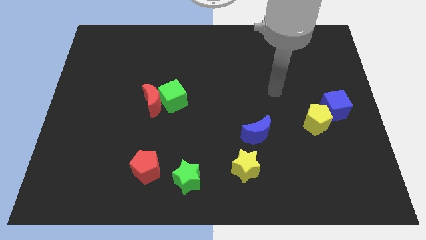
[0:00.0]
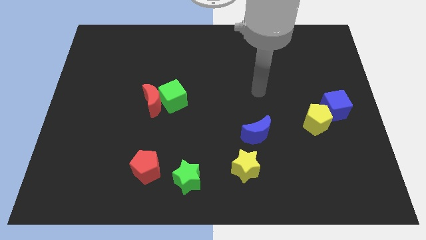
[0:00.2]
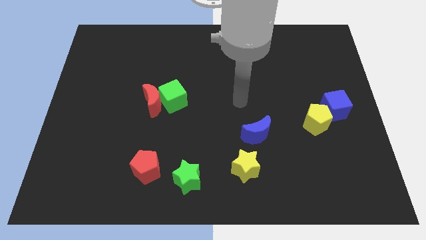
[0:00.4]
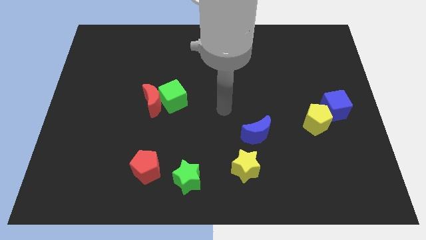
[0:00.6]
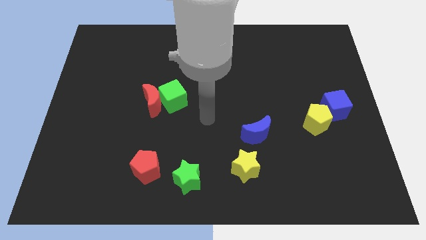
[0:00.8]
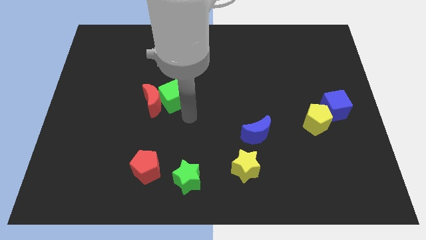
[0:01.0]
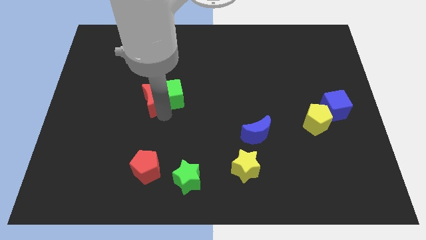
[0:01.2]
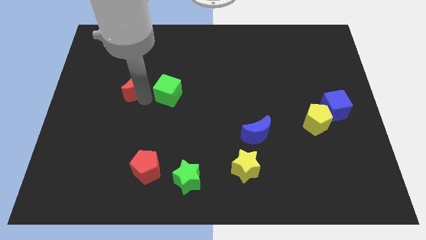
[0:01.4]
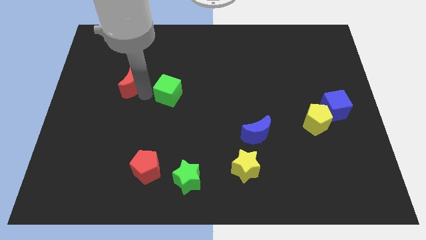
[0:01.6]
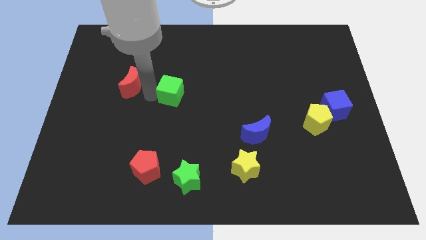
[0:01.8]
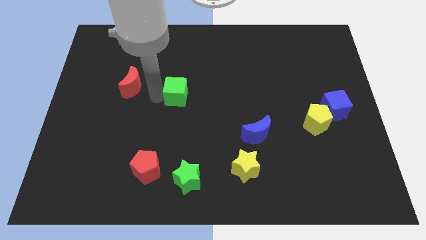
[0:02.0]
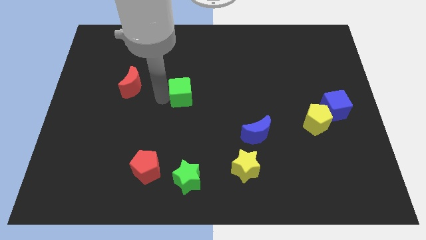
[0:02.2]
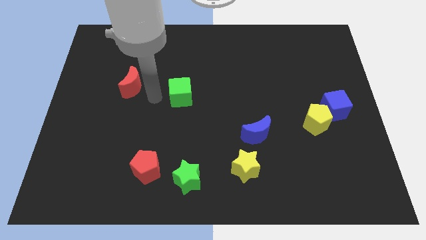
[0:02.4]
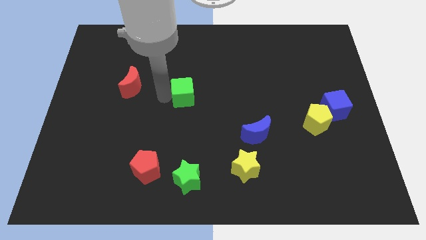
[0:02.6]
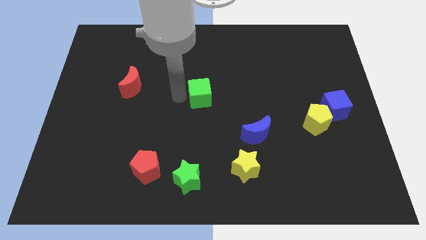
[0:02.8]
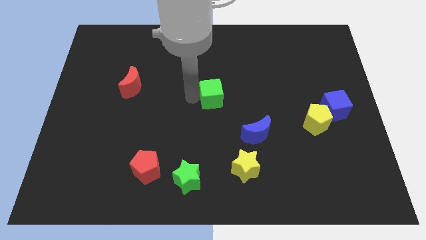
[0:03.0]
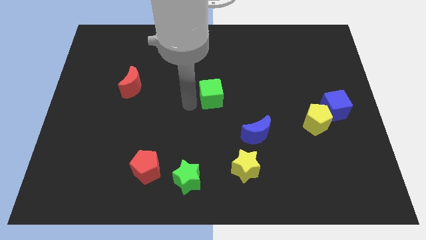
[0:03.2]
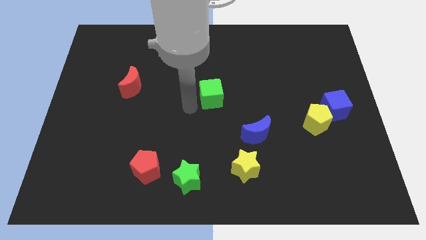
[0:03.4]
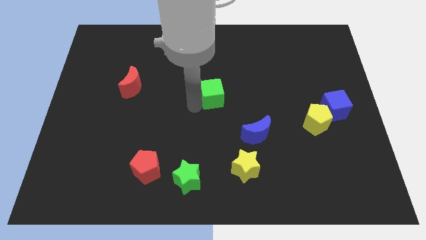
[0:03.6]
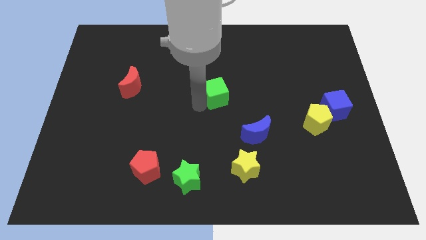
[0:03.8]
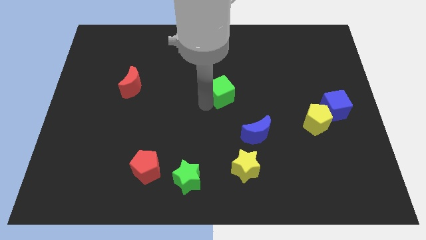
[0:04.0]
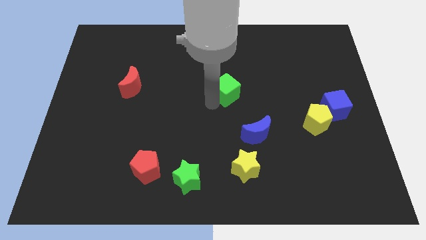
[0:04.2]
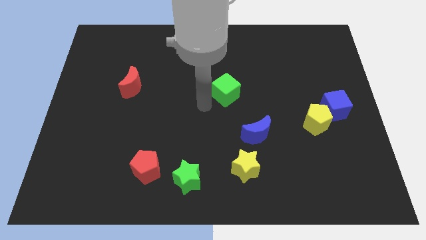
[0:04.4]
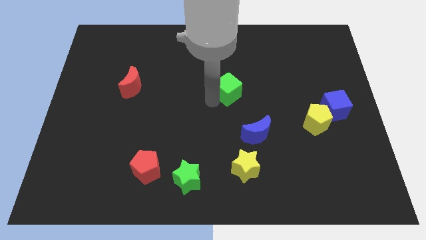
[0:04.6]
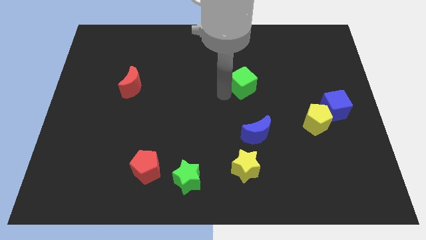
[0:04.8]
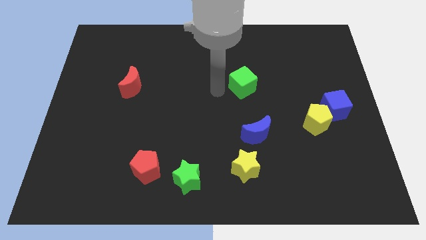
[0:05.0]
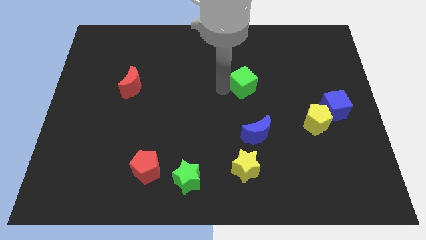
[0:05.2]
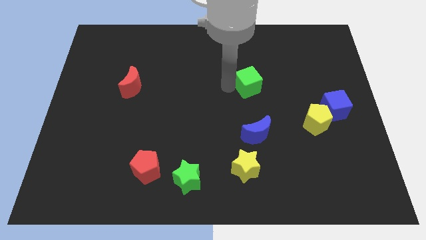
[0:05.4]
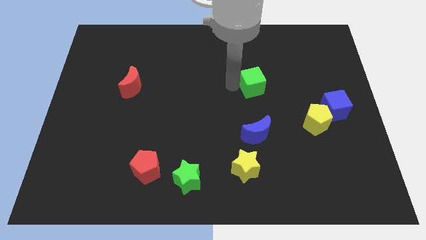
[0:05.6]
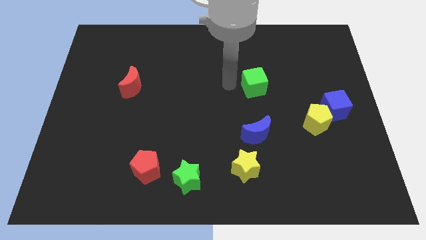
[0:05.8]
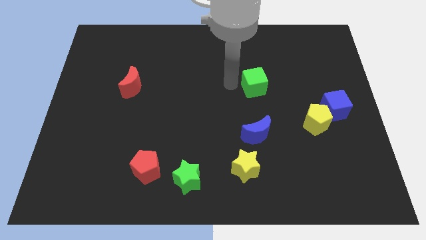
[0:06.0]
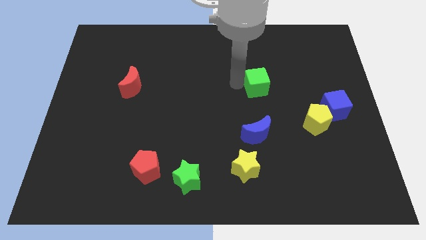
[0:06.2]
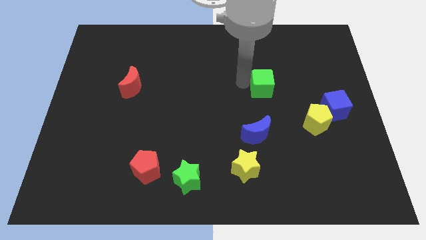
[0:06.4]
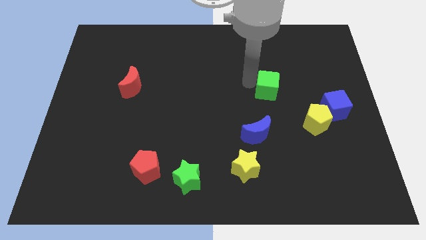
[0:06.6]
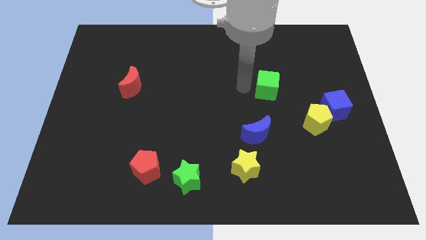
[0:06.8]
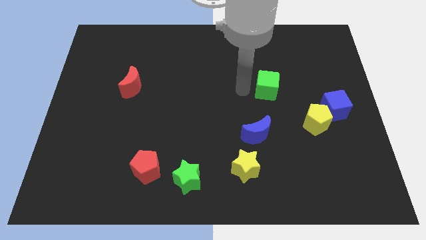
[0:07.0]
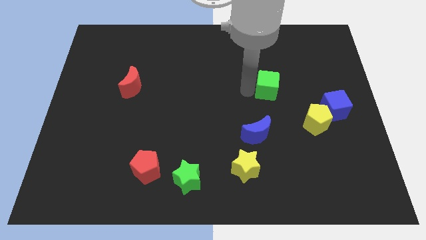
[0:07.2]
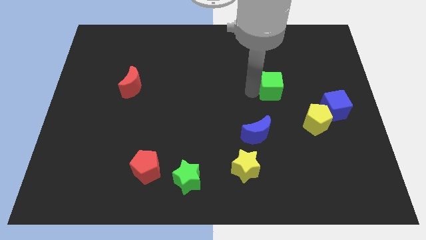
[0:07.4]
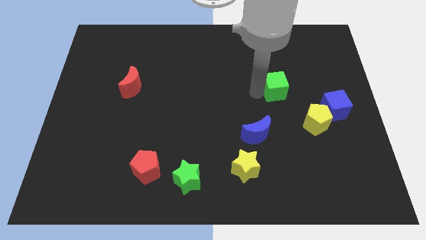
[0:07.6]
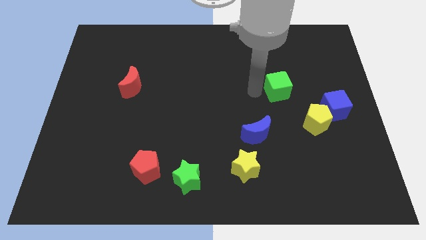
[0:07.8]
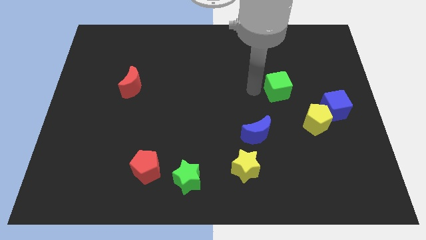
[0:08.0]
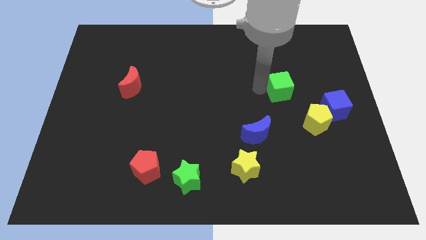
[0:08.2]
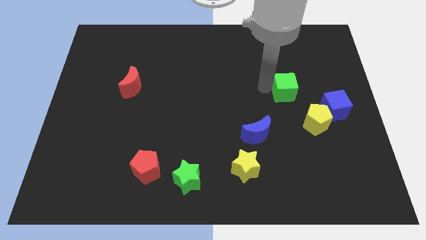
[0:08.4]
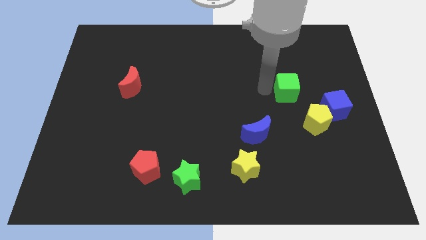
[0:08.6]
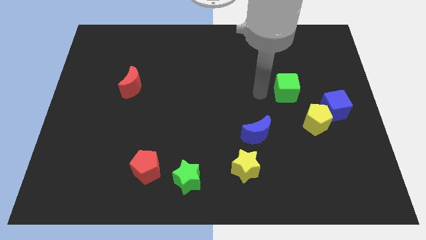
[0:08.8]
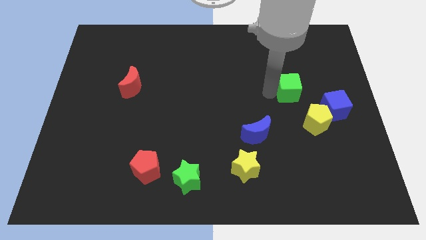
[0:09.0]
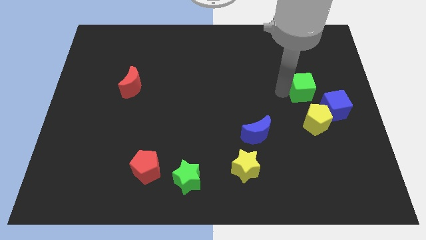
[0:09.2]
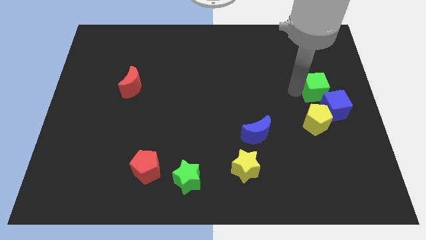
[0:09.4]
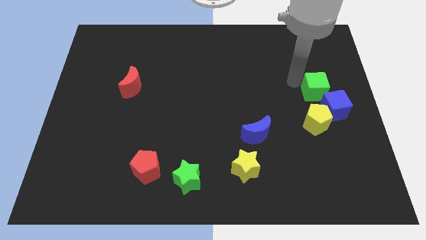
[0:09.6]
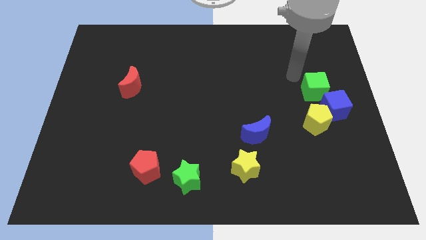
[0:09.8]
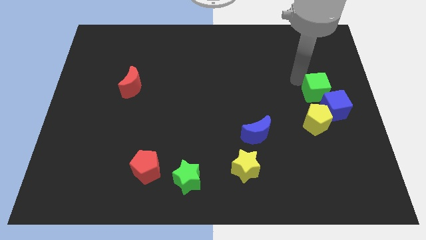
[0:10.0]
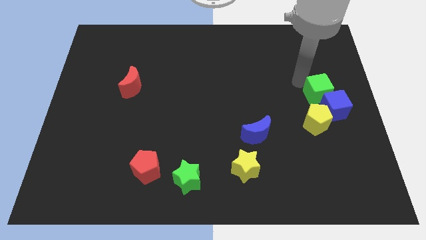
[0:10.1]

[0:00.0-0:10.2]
push the green cube to the top right side of the yellow pentagon

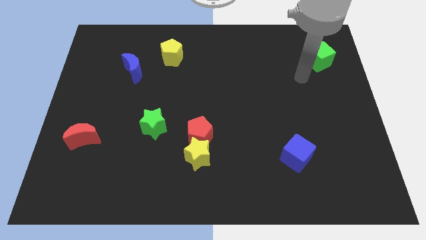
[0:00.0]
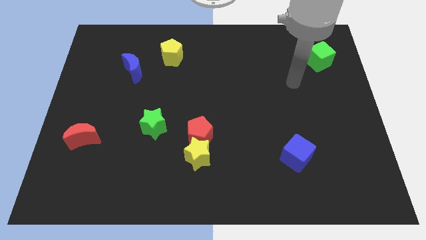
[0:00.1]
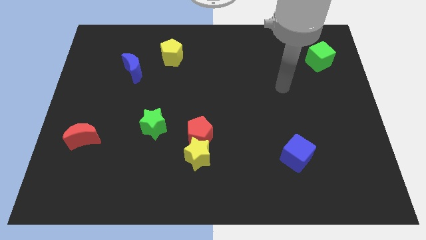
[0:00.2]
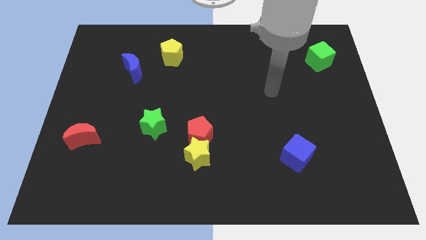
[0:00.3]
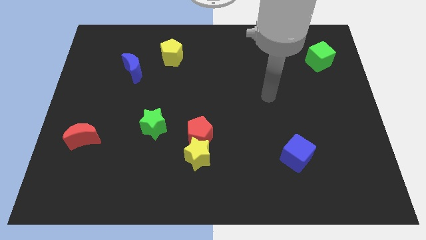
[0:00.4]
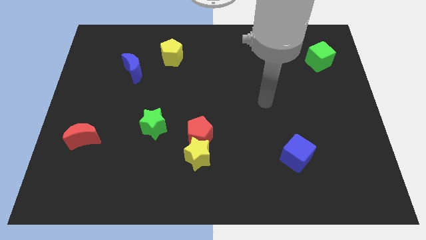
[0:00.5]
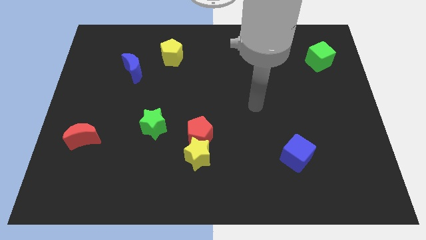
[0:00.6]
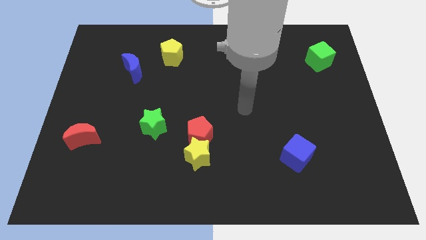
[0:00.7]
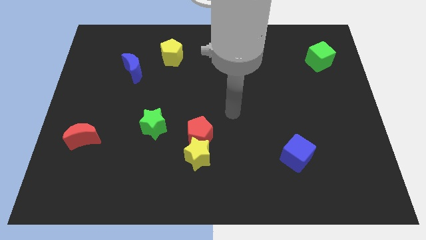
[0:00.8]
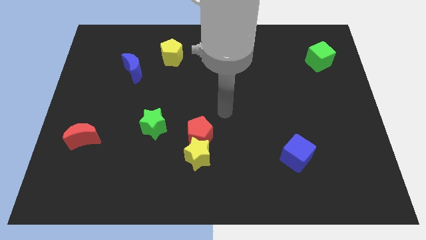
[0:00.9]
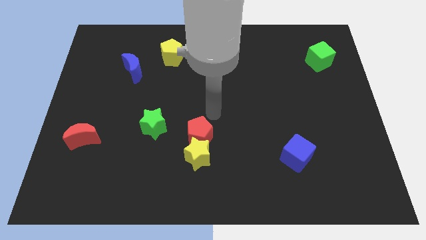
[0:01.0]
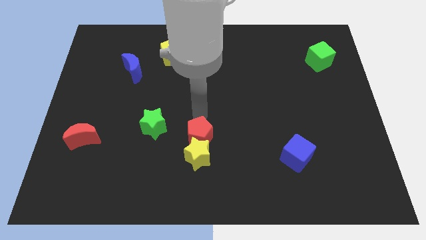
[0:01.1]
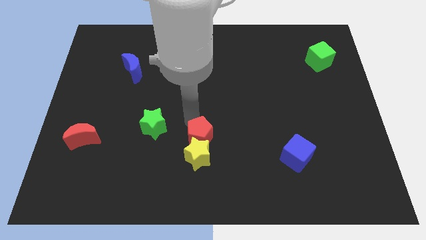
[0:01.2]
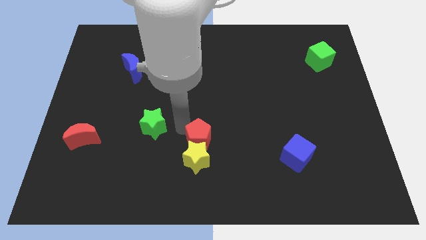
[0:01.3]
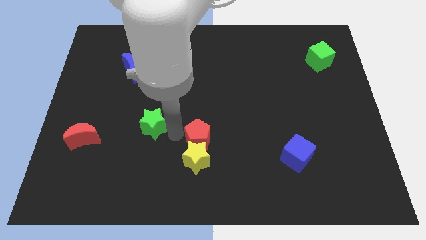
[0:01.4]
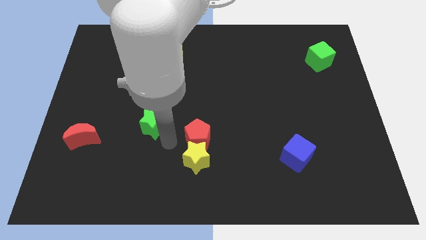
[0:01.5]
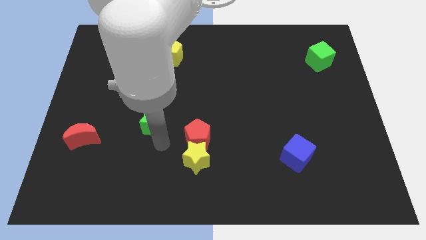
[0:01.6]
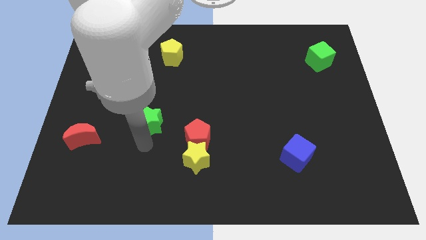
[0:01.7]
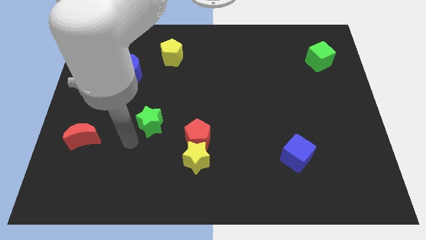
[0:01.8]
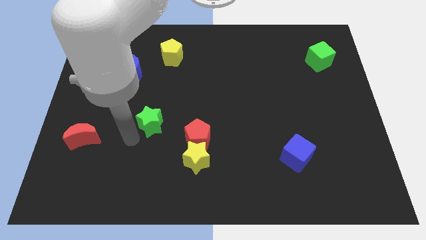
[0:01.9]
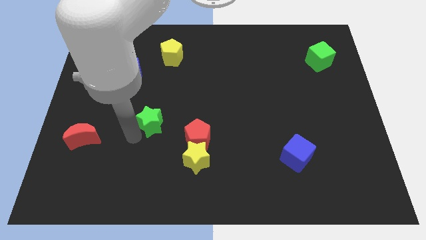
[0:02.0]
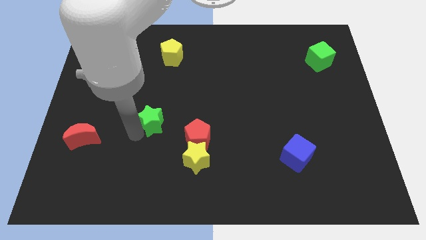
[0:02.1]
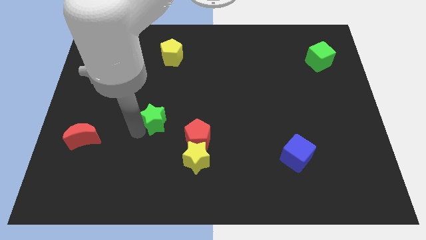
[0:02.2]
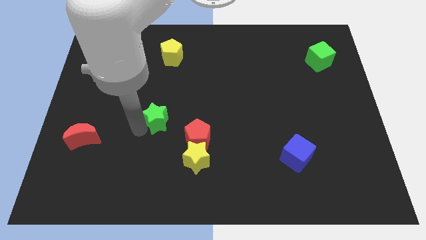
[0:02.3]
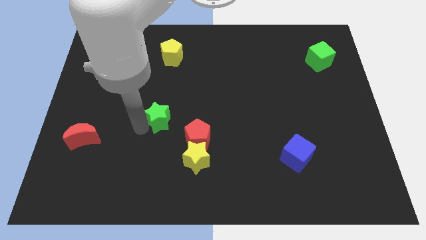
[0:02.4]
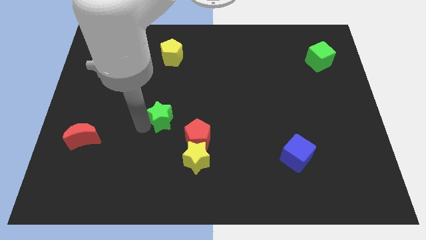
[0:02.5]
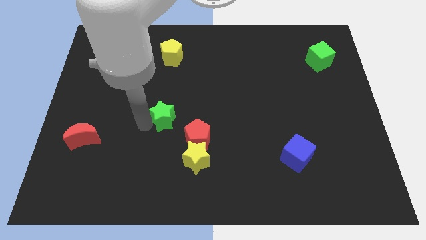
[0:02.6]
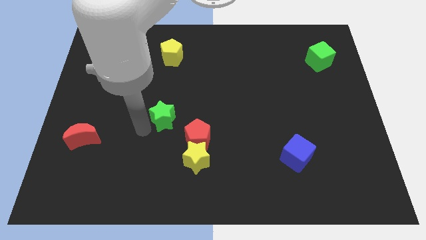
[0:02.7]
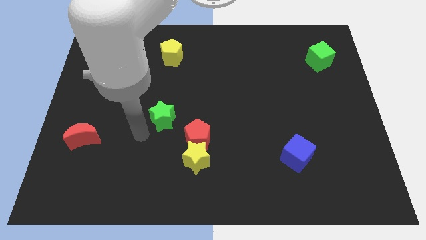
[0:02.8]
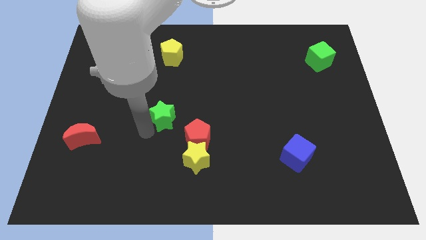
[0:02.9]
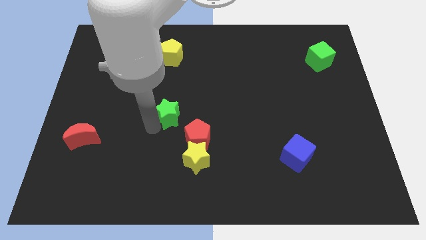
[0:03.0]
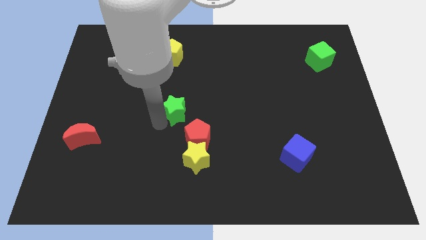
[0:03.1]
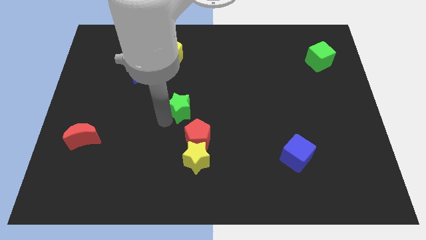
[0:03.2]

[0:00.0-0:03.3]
slide the green star to the top of the red pentagon
